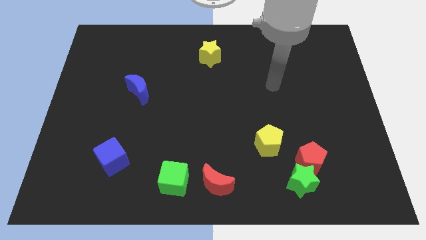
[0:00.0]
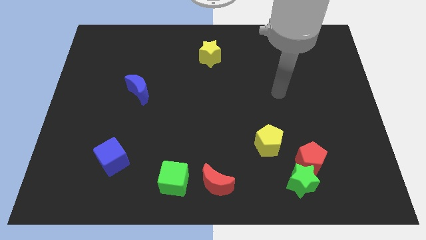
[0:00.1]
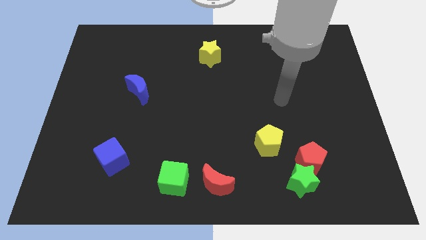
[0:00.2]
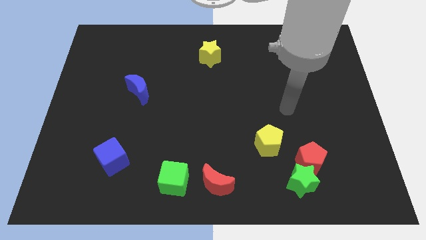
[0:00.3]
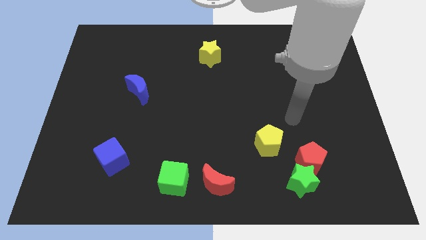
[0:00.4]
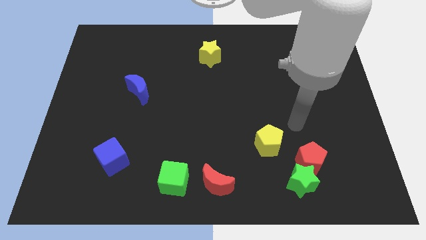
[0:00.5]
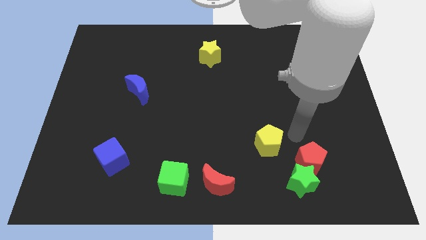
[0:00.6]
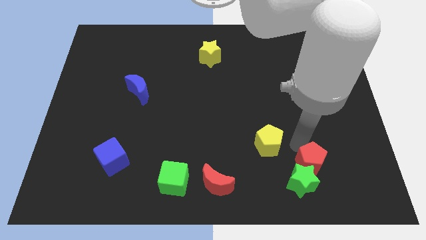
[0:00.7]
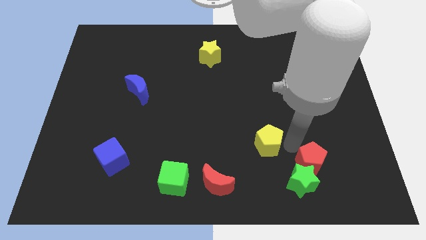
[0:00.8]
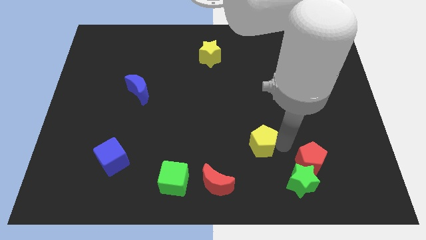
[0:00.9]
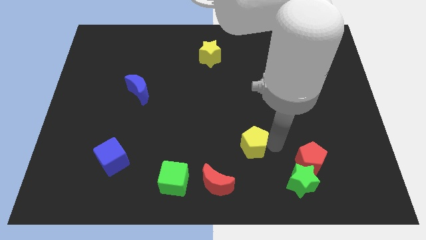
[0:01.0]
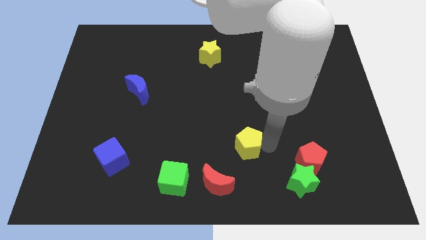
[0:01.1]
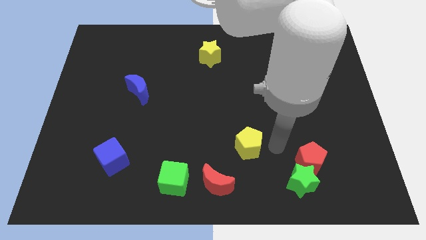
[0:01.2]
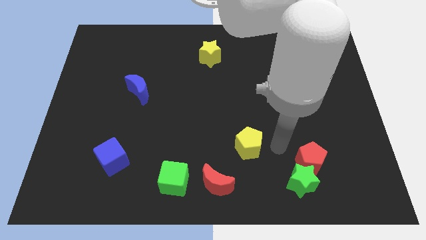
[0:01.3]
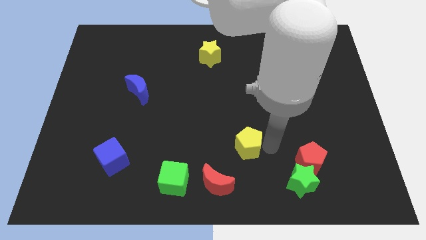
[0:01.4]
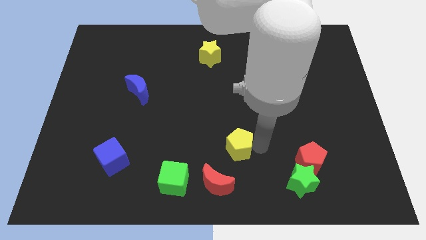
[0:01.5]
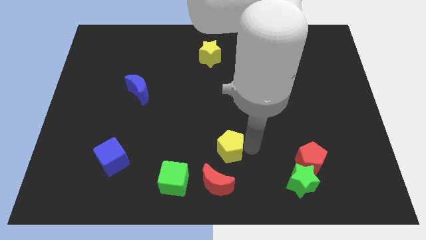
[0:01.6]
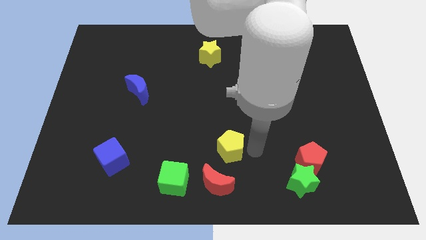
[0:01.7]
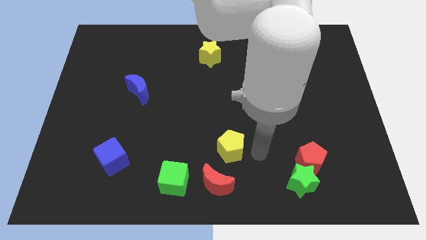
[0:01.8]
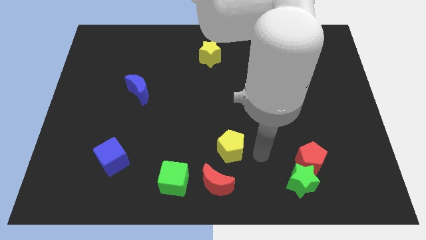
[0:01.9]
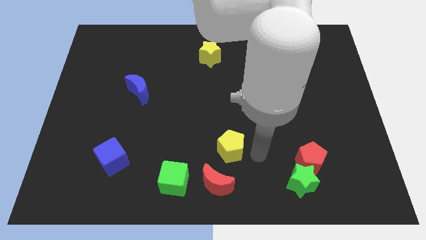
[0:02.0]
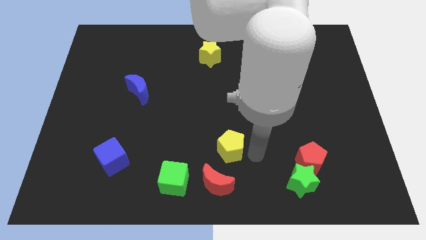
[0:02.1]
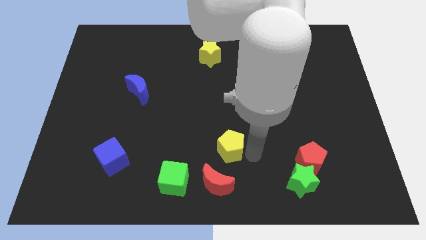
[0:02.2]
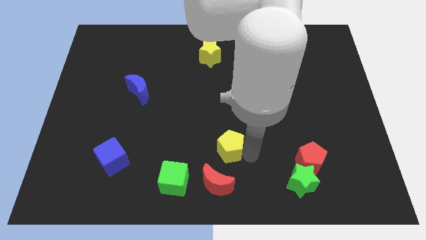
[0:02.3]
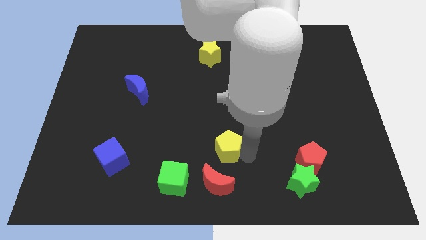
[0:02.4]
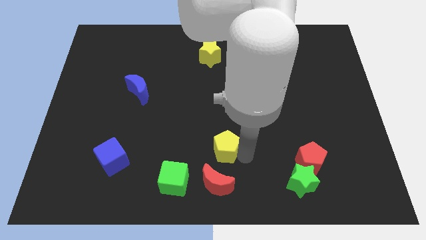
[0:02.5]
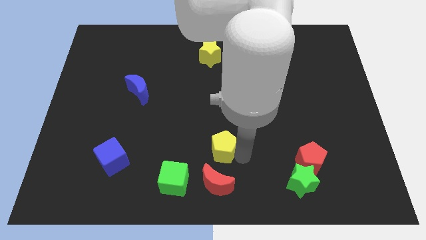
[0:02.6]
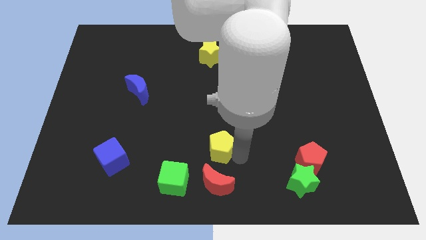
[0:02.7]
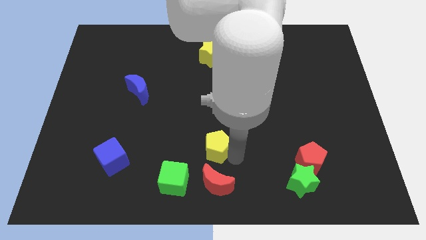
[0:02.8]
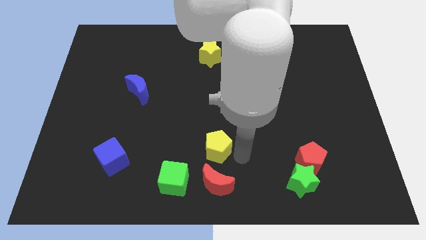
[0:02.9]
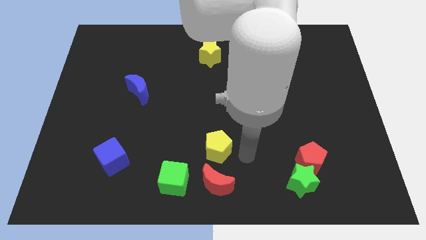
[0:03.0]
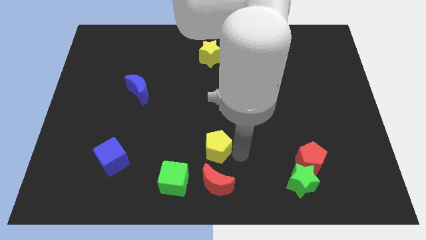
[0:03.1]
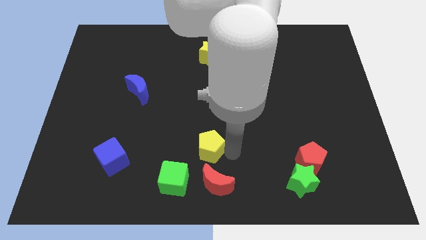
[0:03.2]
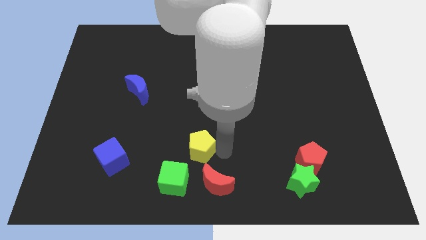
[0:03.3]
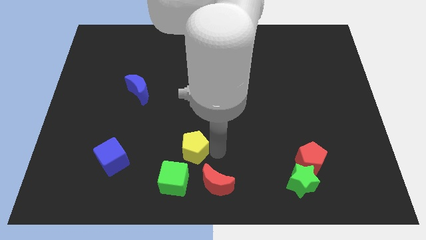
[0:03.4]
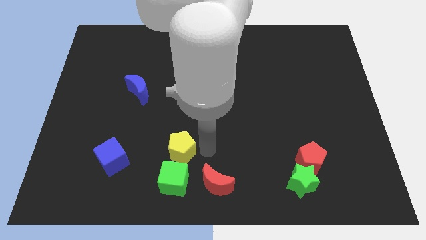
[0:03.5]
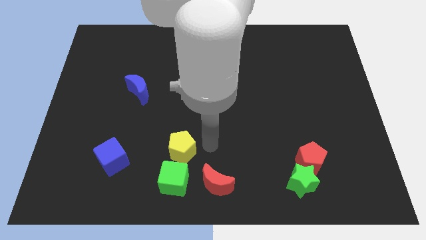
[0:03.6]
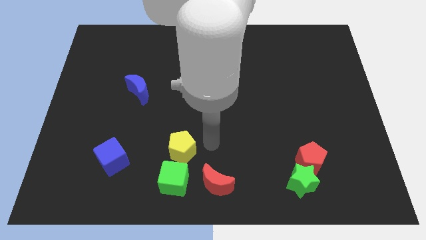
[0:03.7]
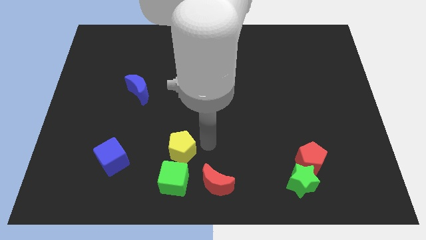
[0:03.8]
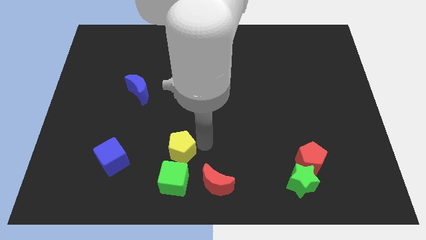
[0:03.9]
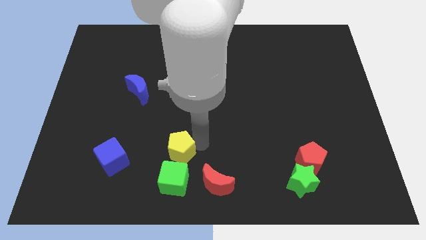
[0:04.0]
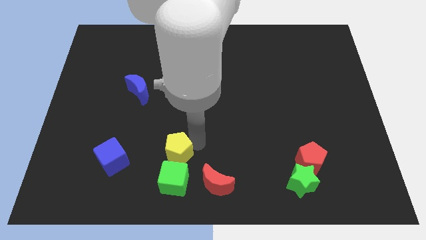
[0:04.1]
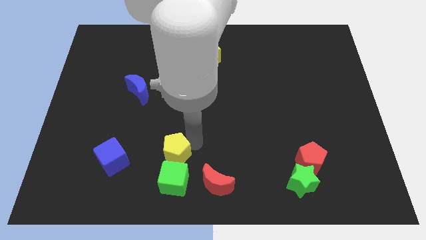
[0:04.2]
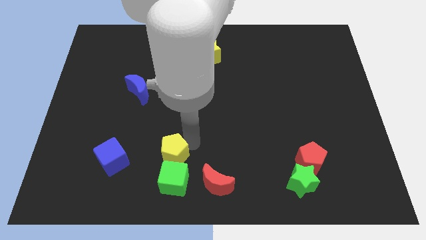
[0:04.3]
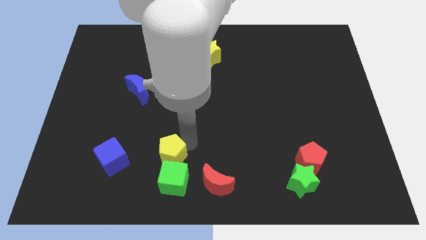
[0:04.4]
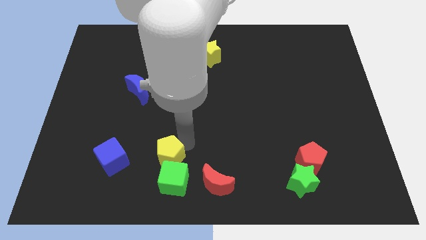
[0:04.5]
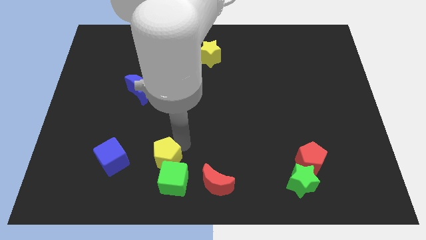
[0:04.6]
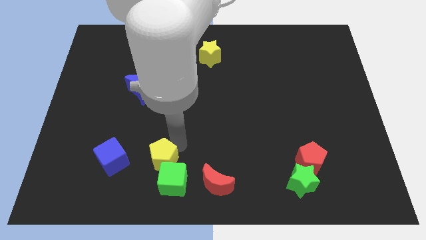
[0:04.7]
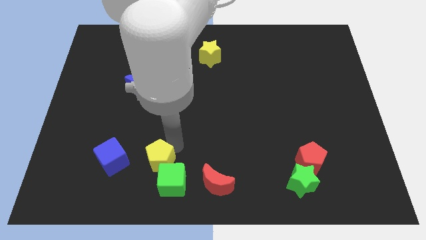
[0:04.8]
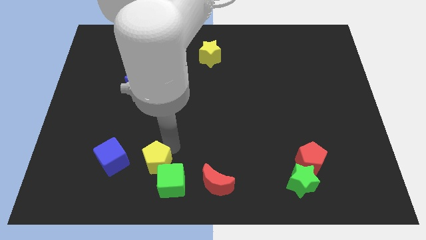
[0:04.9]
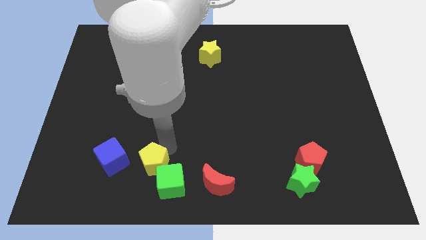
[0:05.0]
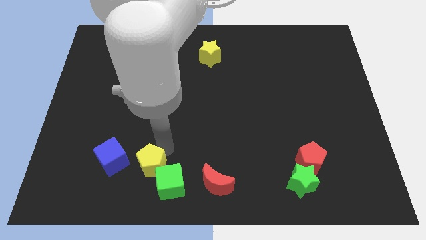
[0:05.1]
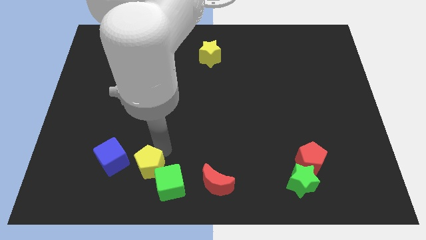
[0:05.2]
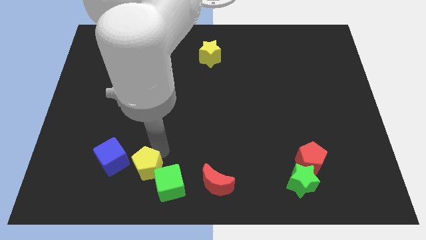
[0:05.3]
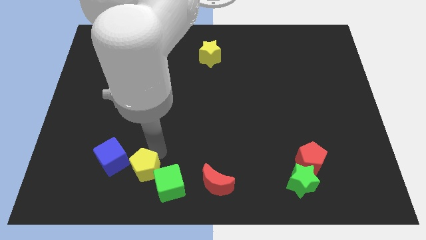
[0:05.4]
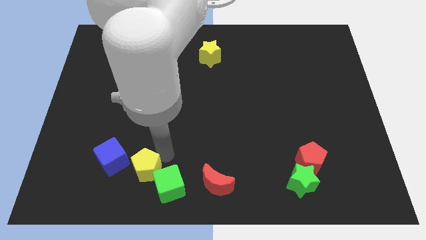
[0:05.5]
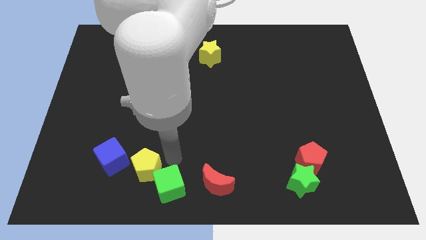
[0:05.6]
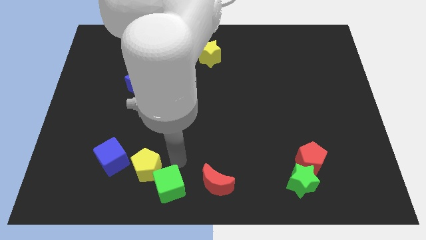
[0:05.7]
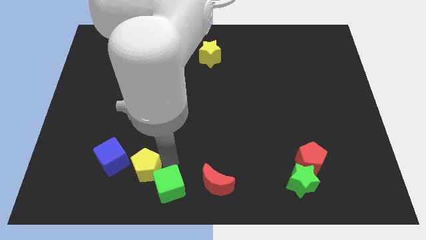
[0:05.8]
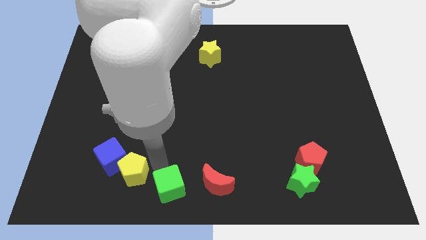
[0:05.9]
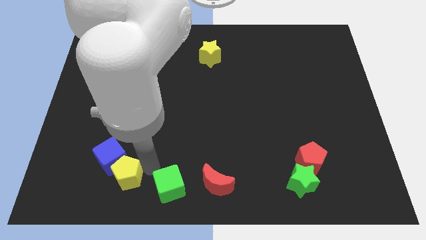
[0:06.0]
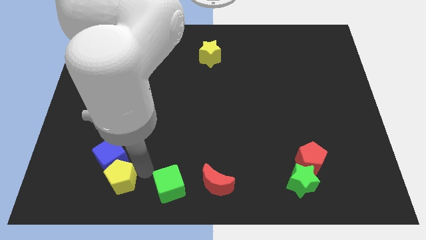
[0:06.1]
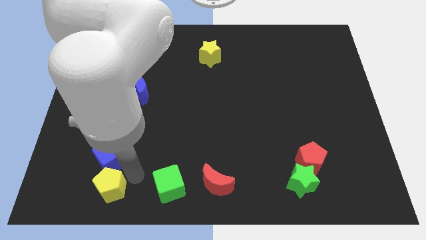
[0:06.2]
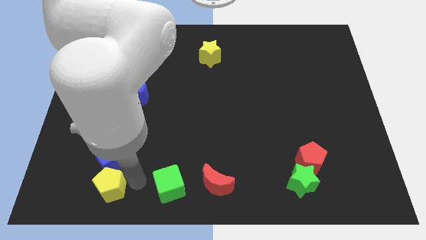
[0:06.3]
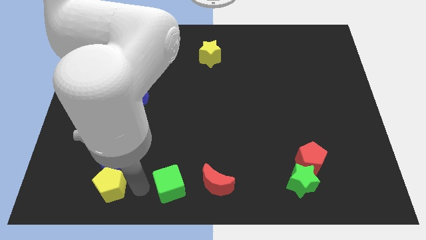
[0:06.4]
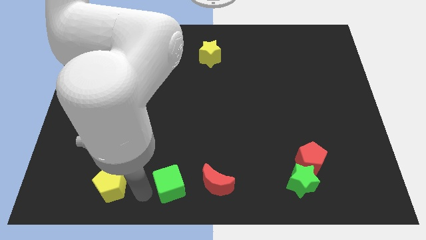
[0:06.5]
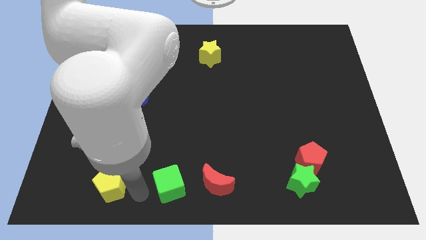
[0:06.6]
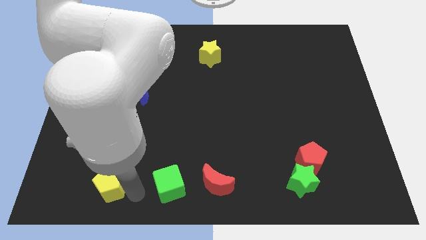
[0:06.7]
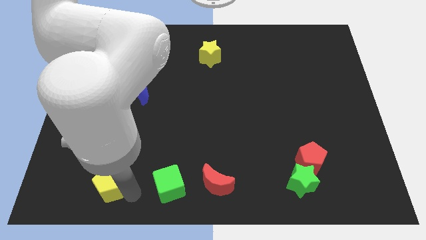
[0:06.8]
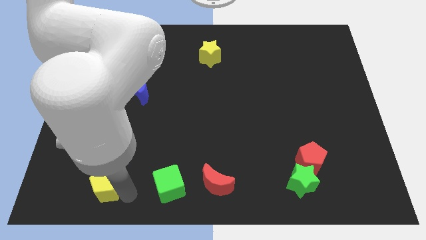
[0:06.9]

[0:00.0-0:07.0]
slide the yellow pentagon to the bottom left of the blue cube

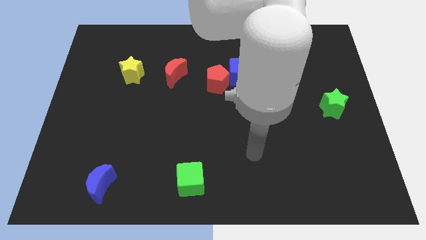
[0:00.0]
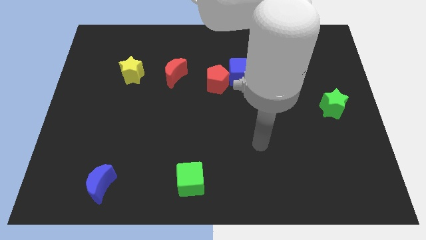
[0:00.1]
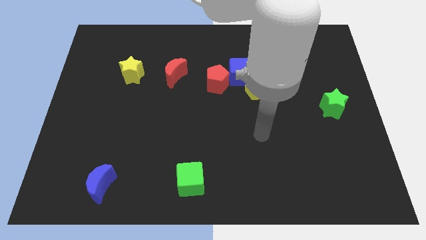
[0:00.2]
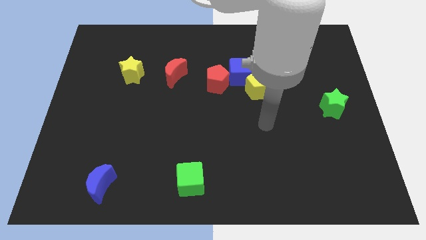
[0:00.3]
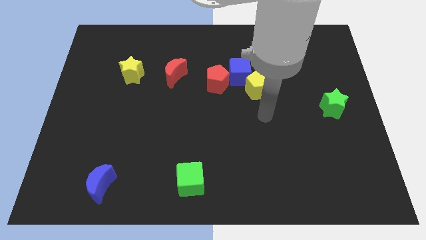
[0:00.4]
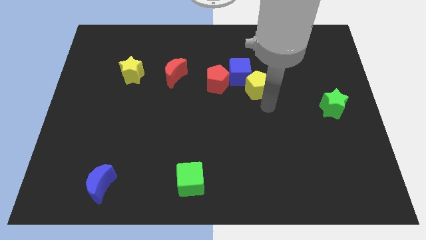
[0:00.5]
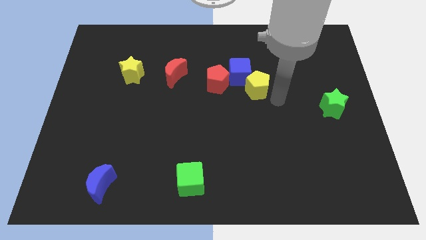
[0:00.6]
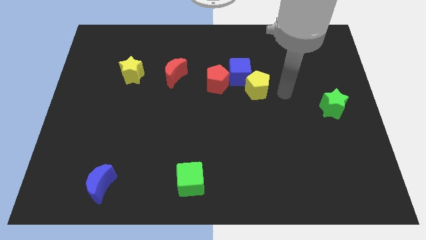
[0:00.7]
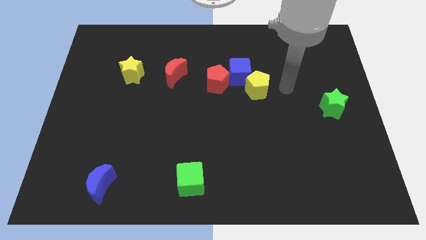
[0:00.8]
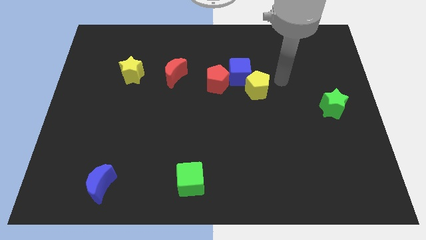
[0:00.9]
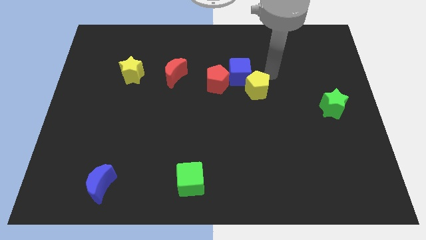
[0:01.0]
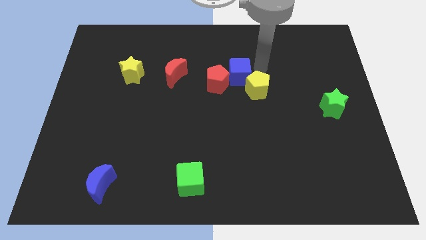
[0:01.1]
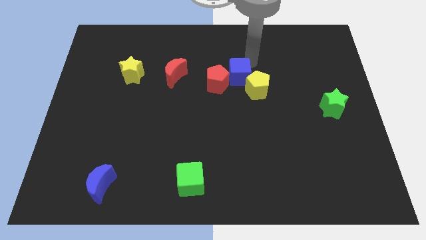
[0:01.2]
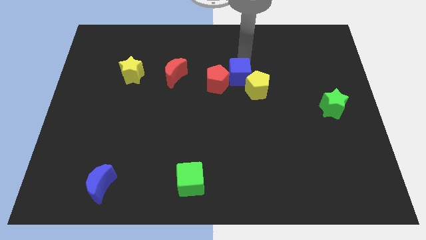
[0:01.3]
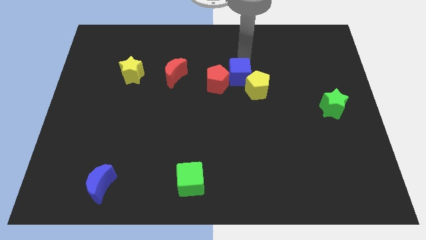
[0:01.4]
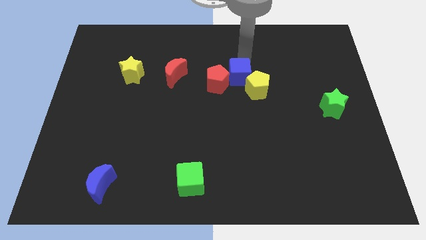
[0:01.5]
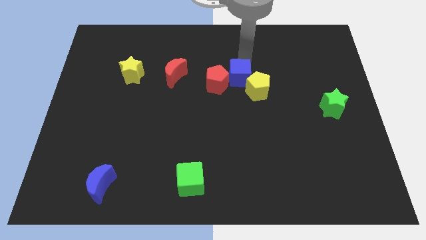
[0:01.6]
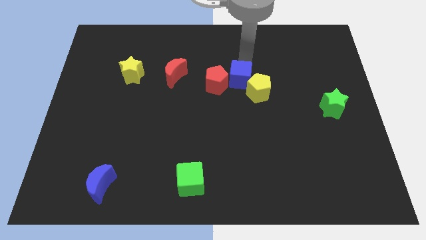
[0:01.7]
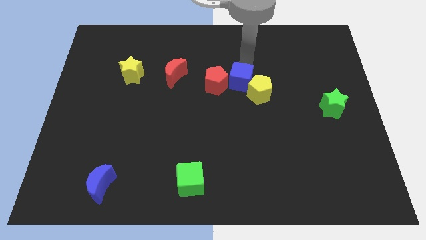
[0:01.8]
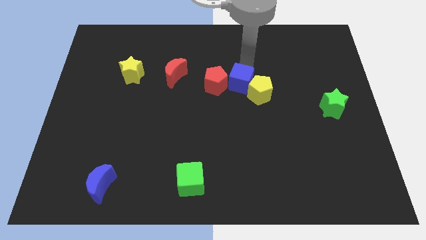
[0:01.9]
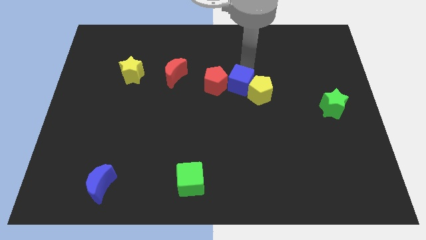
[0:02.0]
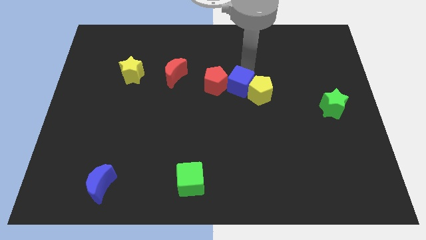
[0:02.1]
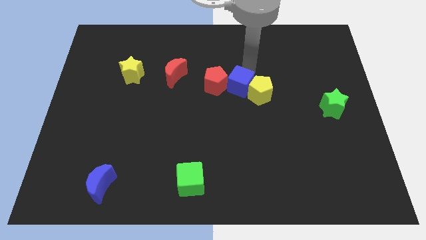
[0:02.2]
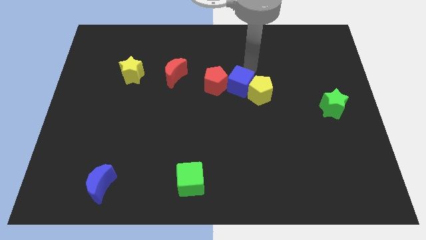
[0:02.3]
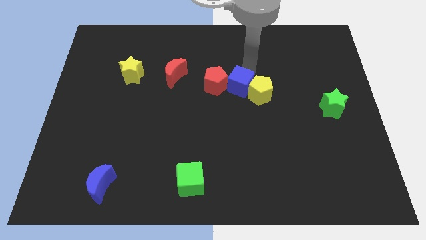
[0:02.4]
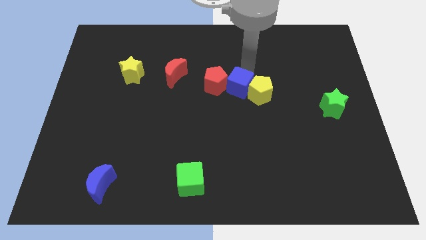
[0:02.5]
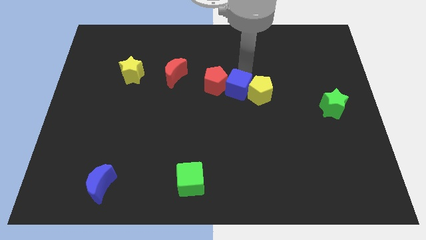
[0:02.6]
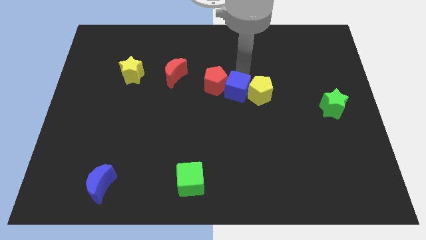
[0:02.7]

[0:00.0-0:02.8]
push the blue cube diagonally down and to the left of the yellow pentagon
